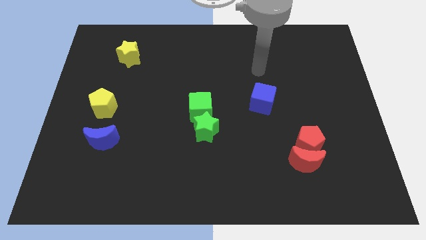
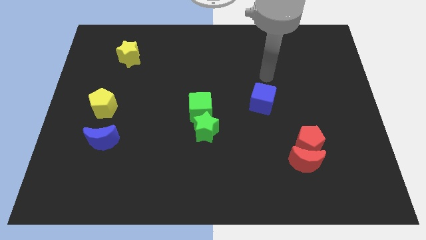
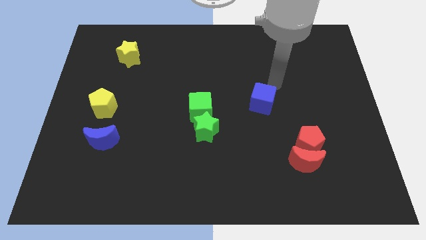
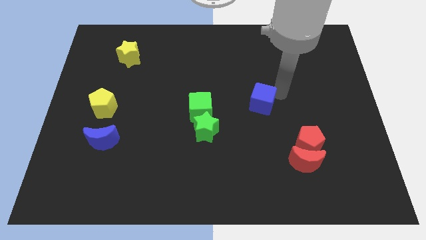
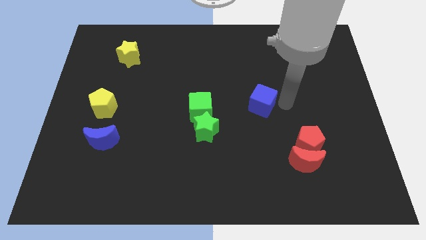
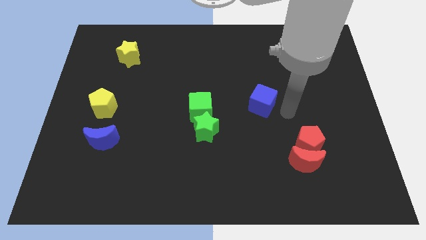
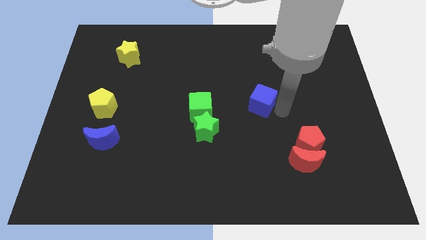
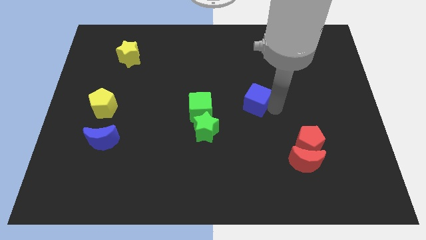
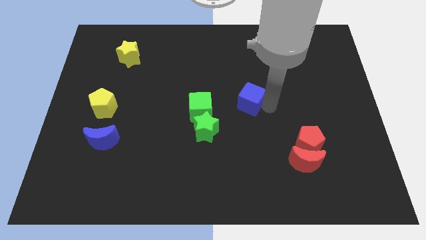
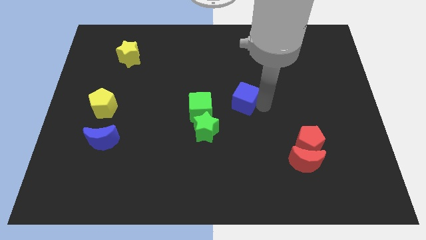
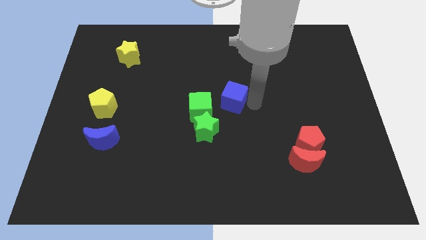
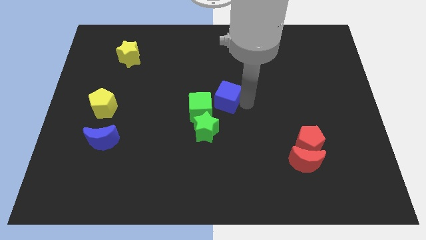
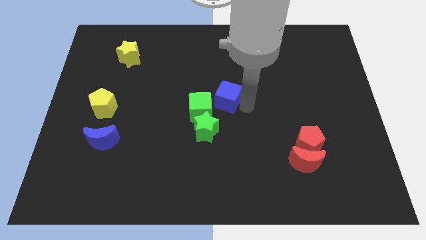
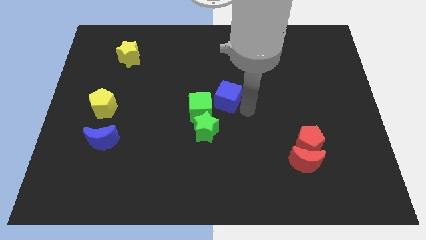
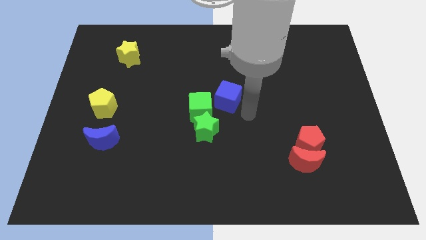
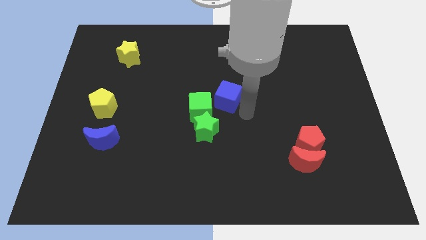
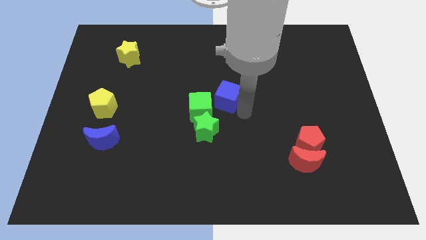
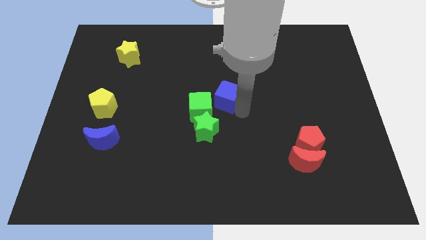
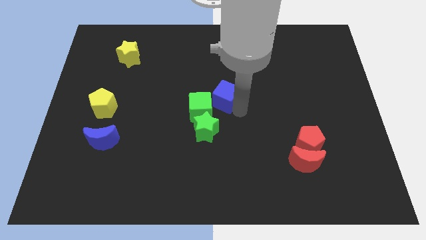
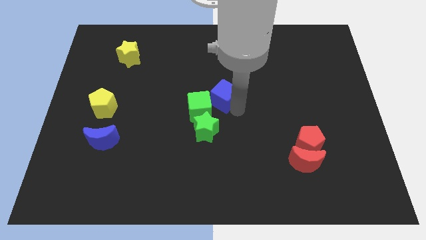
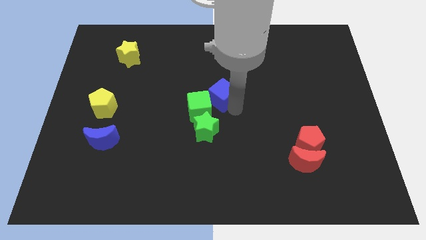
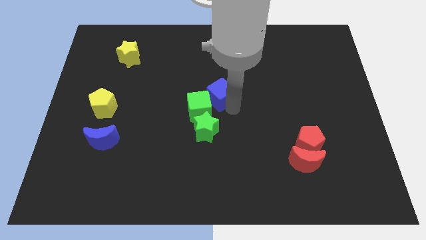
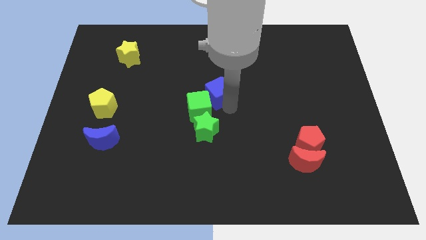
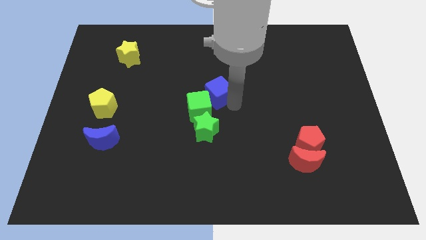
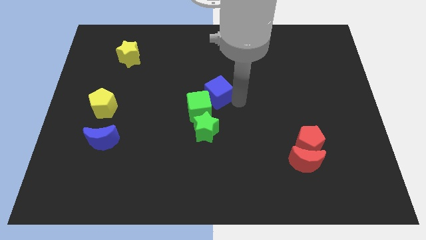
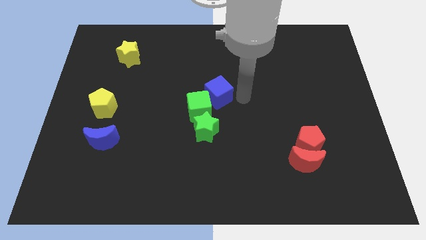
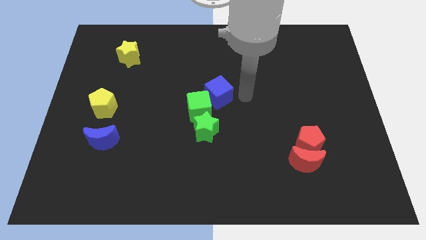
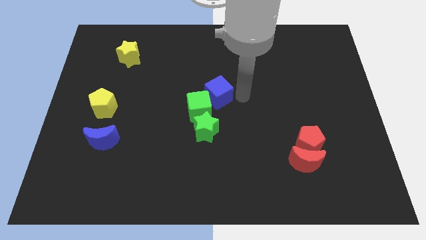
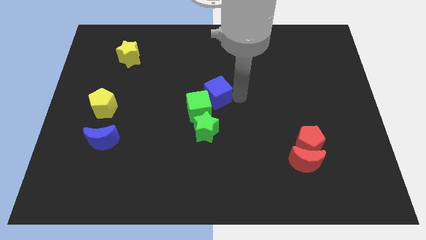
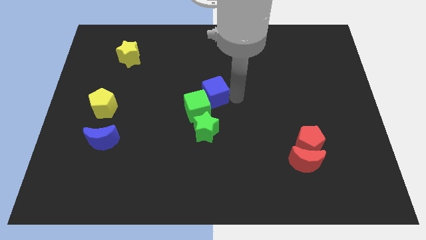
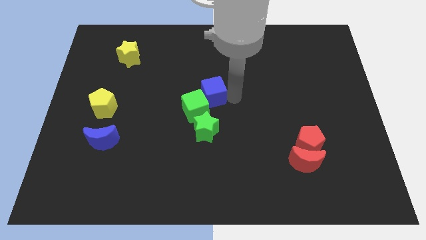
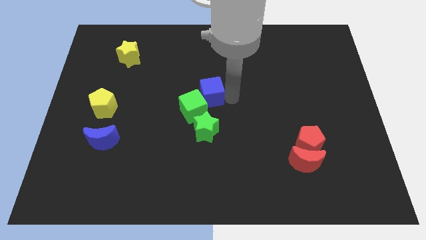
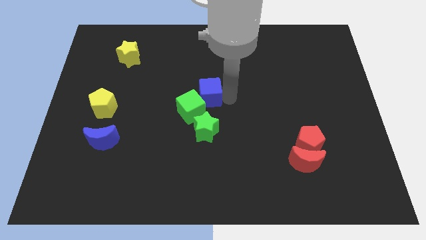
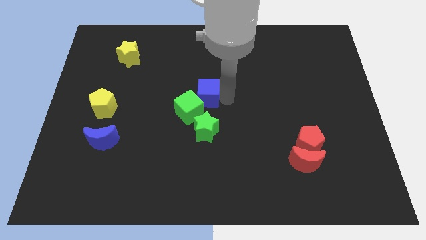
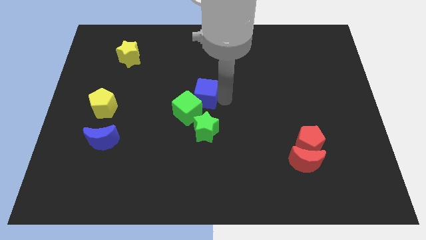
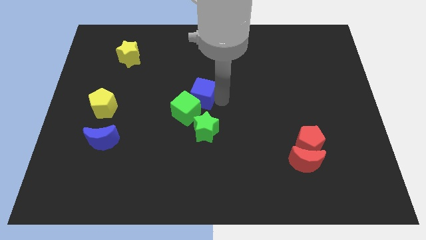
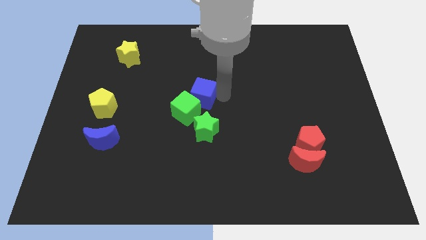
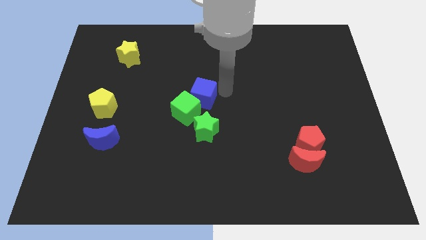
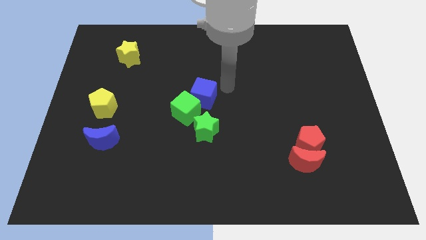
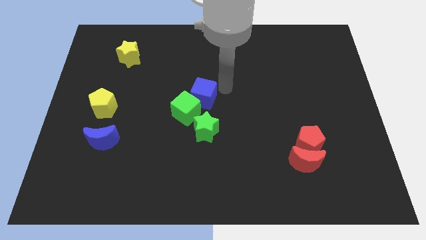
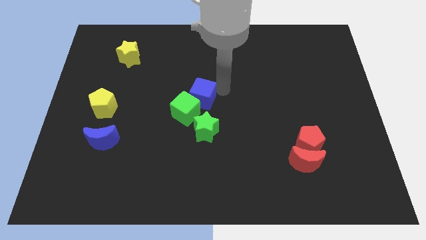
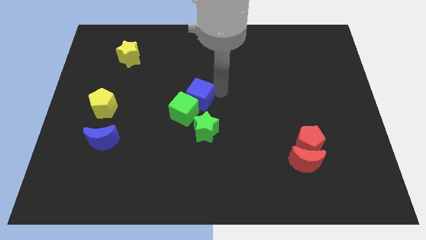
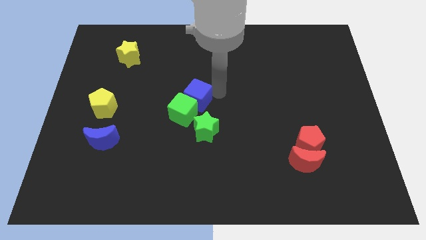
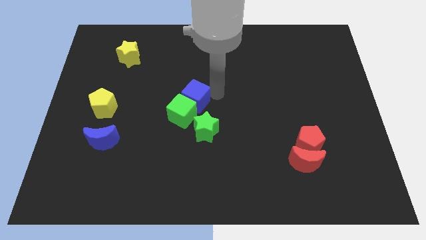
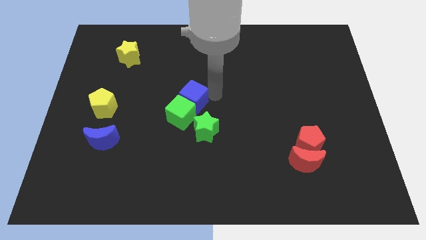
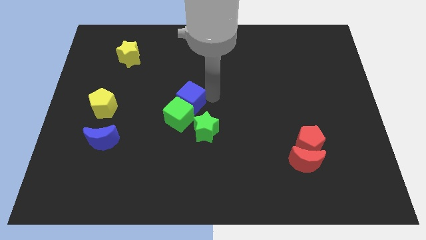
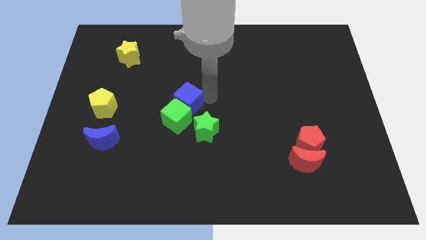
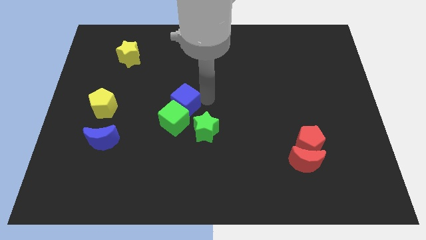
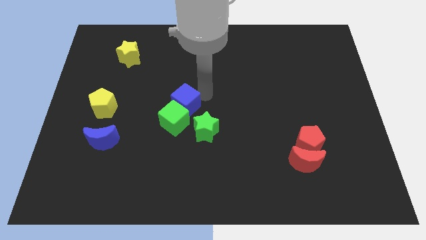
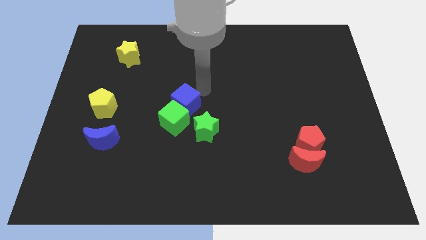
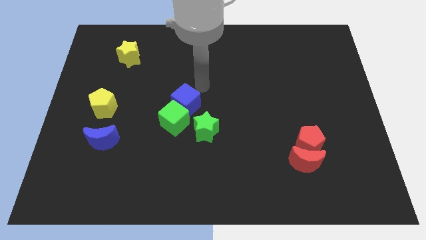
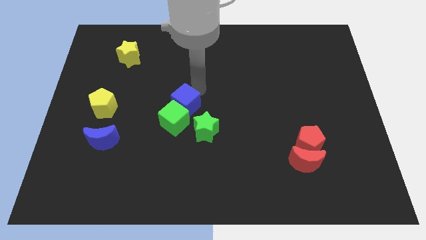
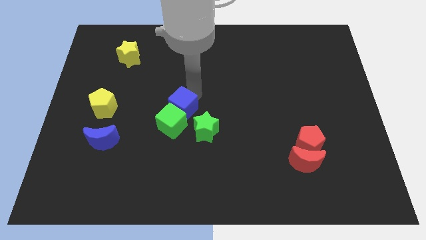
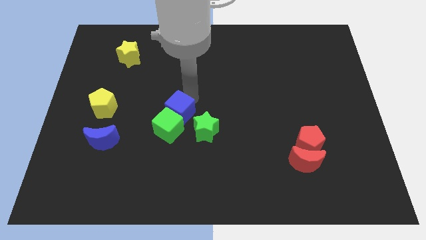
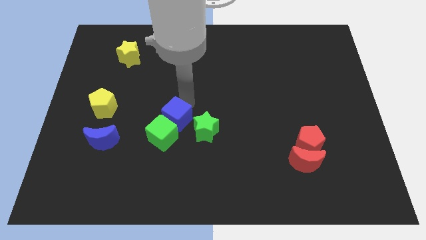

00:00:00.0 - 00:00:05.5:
put the blue cube to the left of the green star
